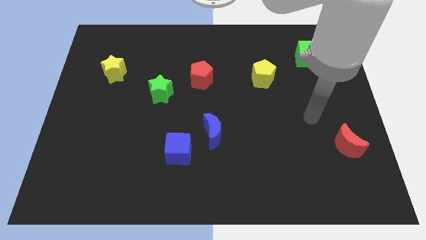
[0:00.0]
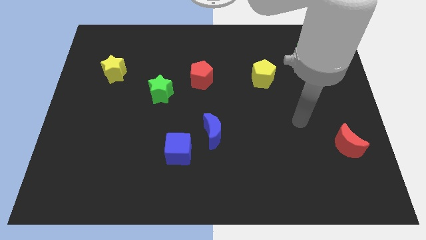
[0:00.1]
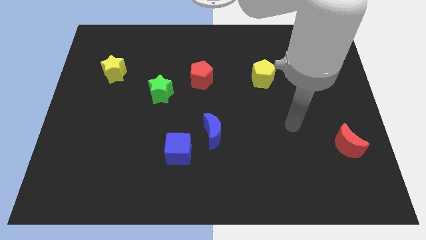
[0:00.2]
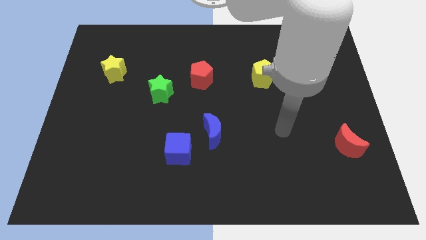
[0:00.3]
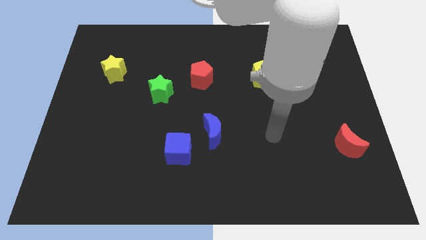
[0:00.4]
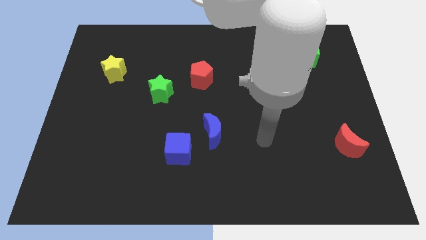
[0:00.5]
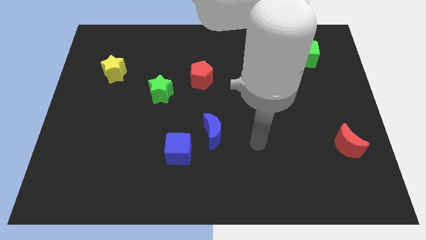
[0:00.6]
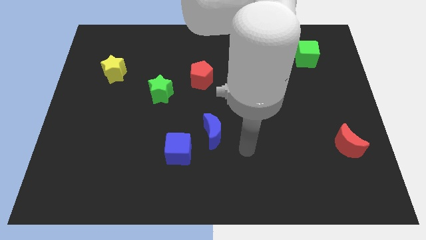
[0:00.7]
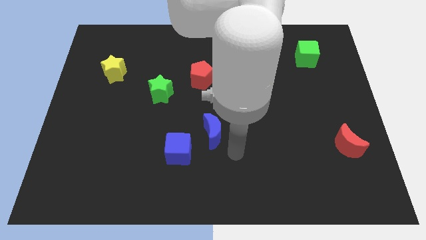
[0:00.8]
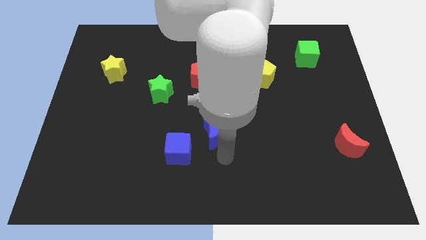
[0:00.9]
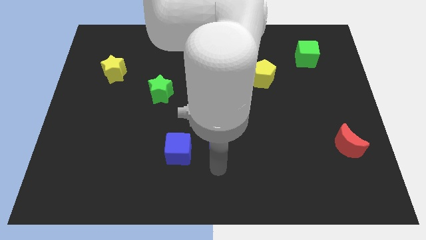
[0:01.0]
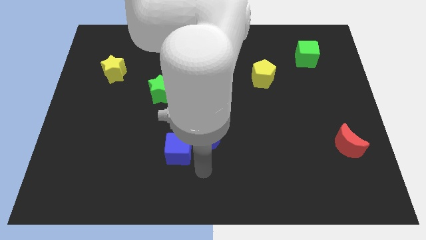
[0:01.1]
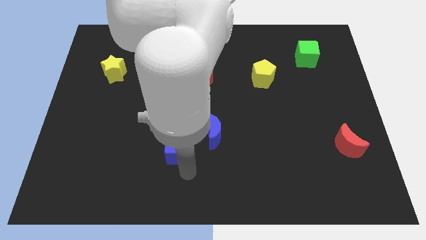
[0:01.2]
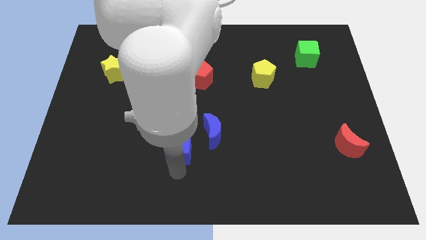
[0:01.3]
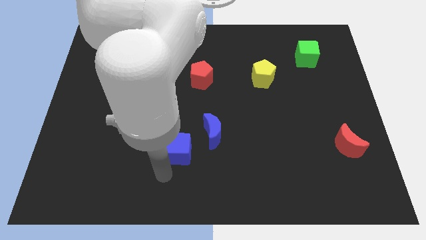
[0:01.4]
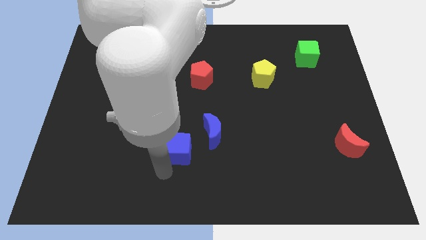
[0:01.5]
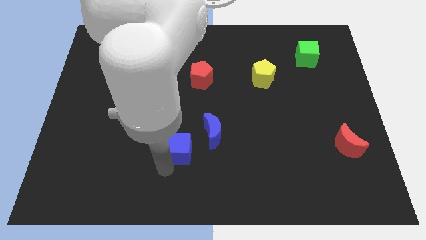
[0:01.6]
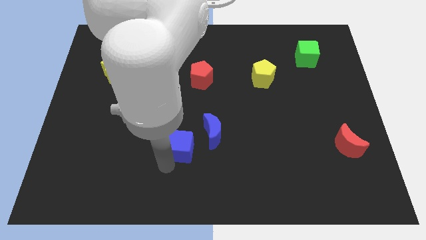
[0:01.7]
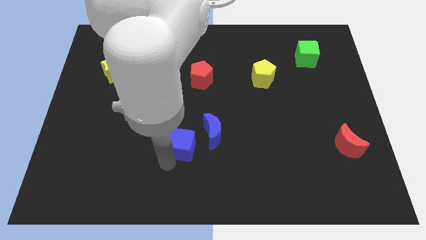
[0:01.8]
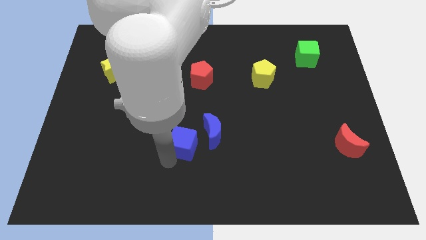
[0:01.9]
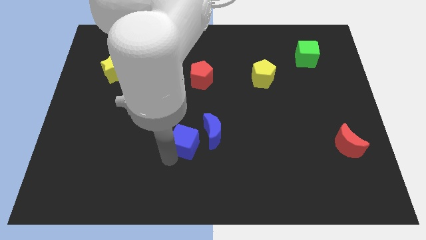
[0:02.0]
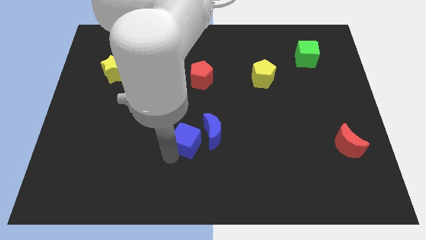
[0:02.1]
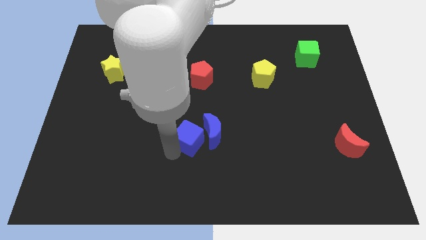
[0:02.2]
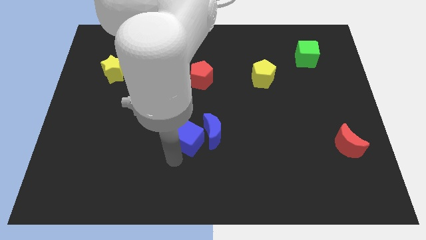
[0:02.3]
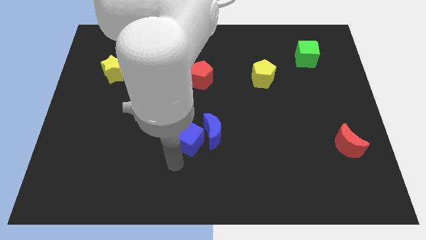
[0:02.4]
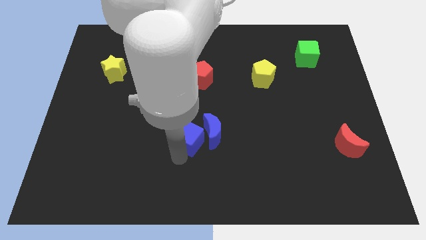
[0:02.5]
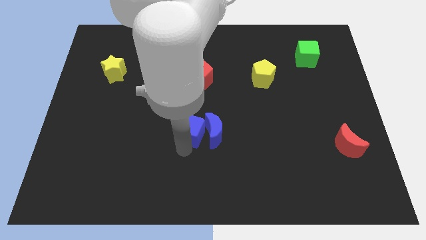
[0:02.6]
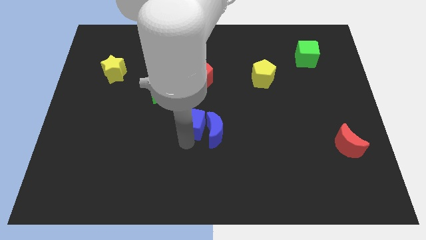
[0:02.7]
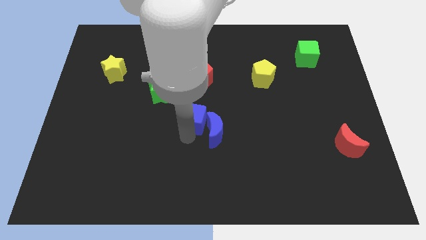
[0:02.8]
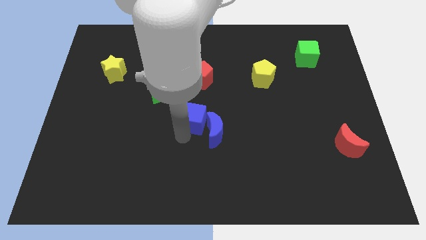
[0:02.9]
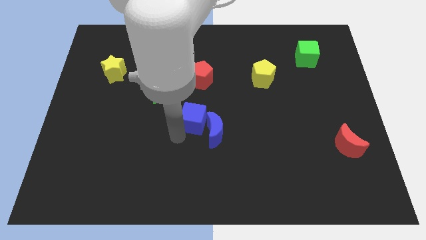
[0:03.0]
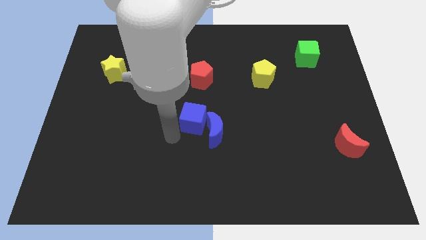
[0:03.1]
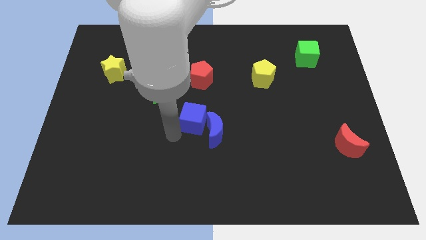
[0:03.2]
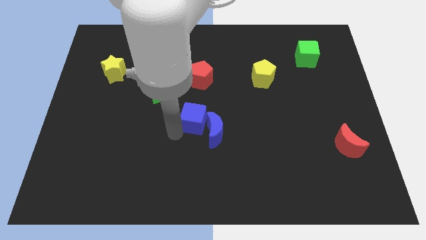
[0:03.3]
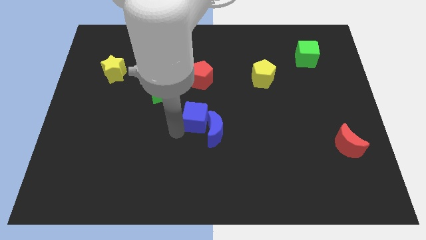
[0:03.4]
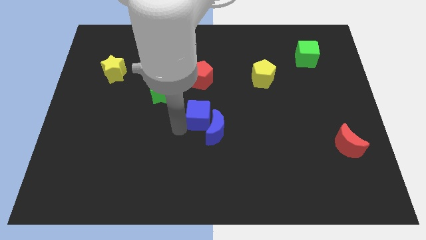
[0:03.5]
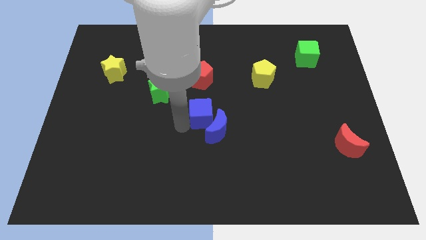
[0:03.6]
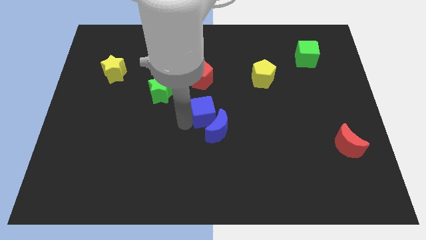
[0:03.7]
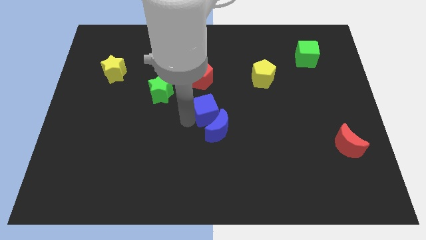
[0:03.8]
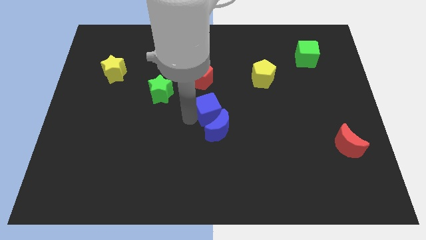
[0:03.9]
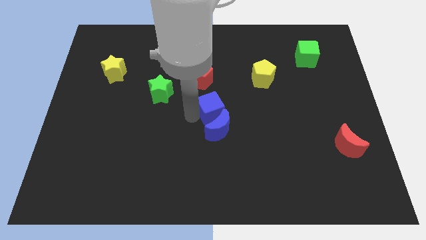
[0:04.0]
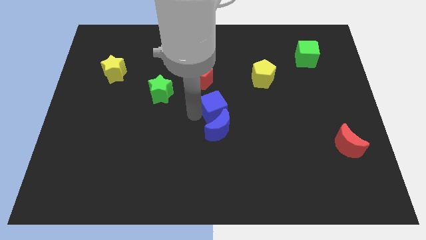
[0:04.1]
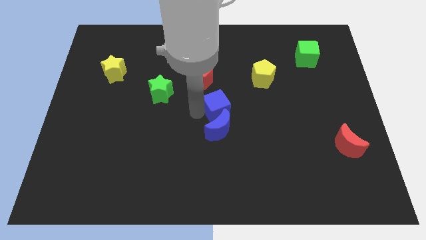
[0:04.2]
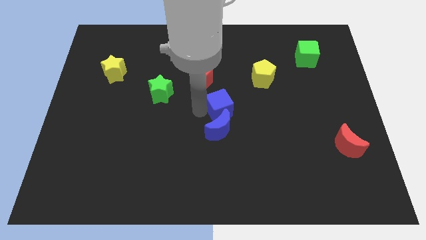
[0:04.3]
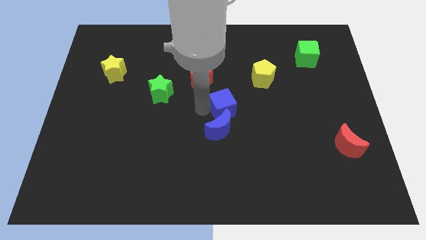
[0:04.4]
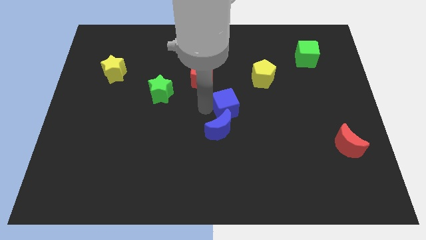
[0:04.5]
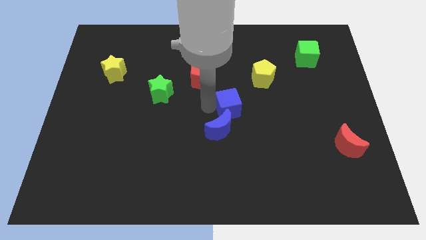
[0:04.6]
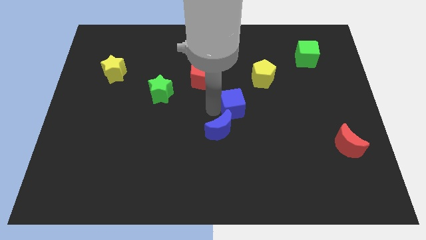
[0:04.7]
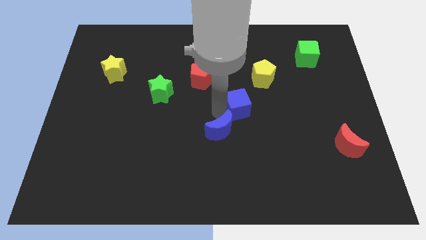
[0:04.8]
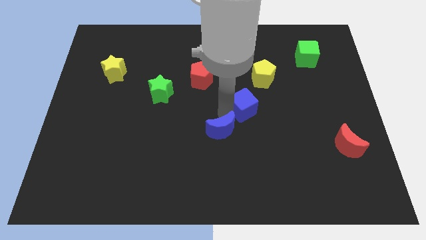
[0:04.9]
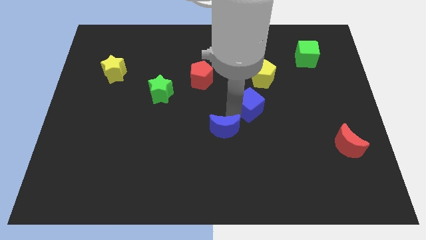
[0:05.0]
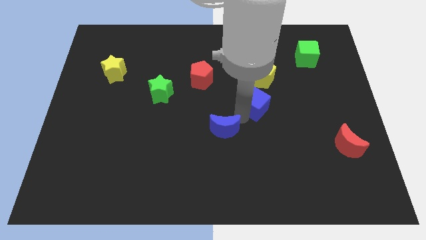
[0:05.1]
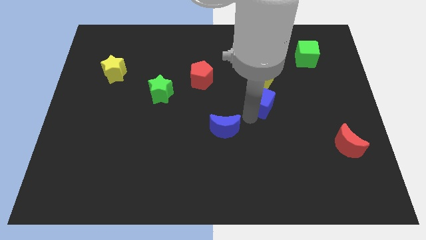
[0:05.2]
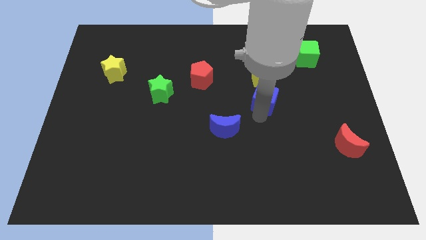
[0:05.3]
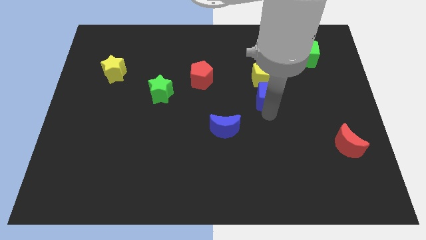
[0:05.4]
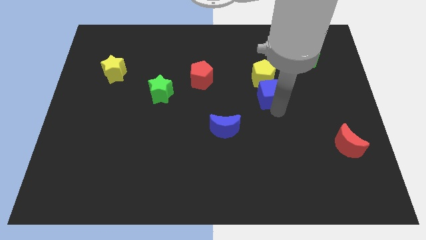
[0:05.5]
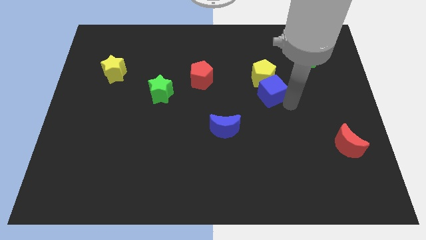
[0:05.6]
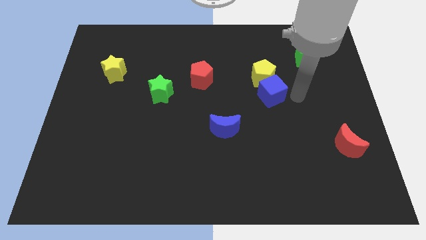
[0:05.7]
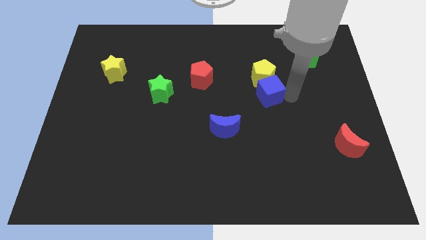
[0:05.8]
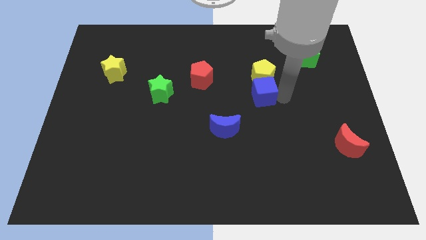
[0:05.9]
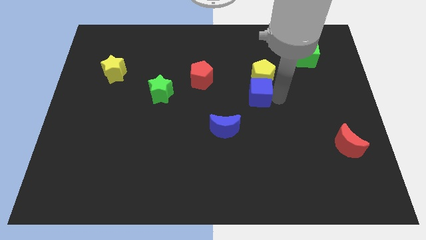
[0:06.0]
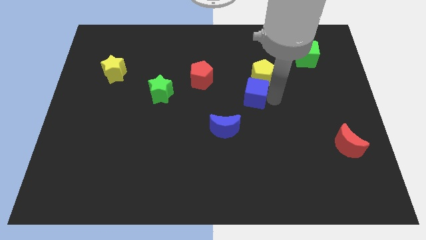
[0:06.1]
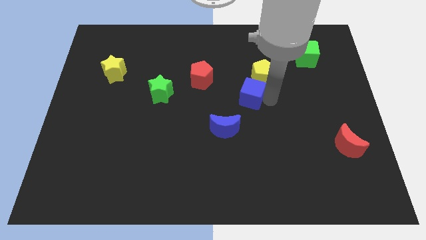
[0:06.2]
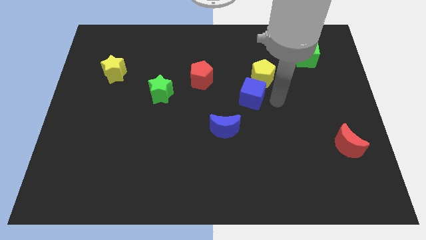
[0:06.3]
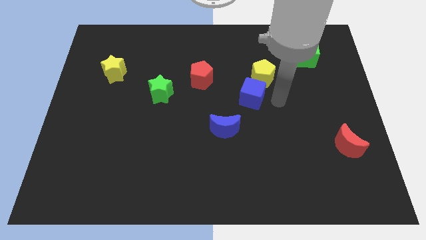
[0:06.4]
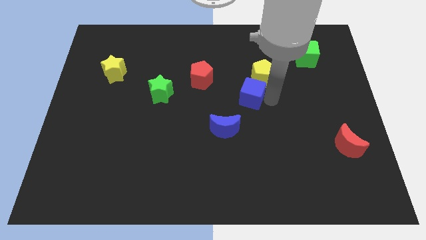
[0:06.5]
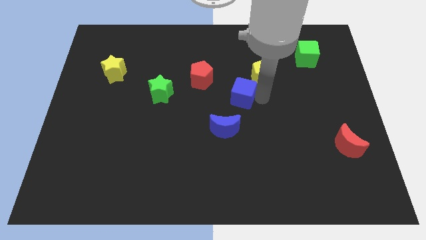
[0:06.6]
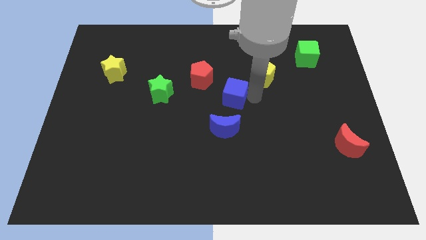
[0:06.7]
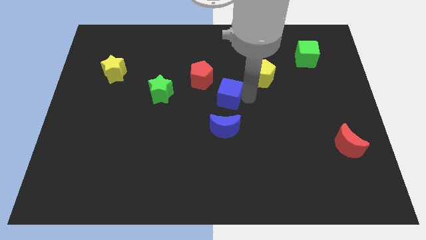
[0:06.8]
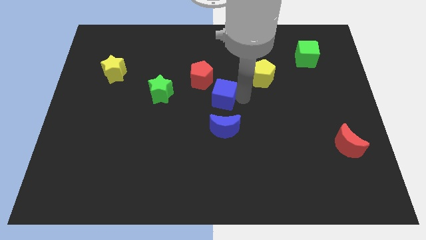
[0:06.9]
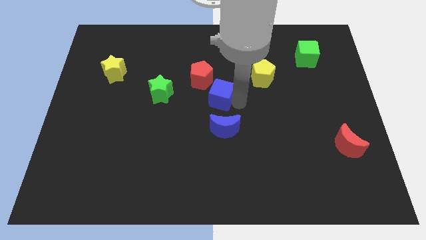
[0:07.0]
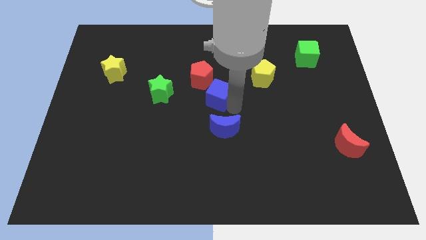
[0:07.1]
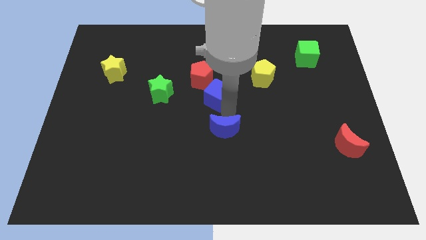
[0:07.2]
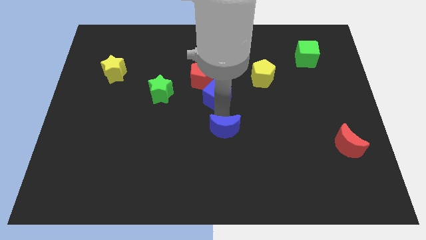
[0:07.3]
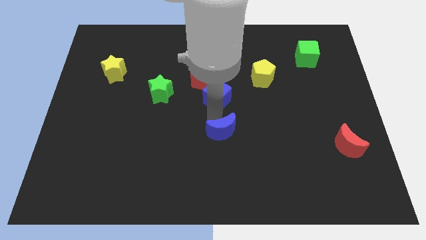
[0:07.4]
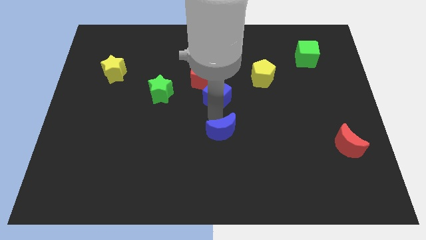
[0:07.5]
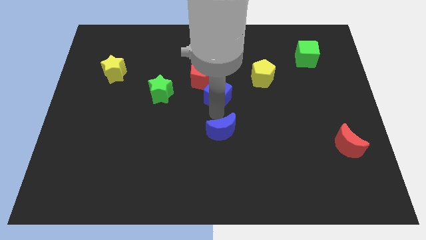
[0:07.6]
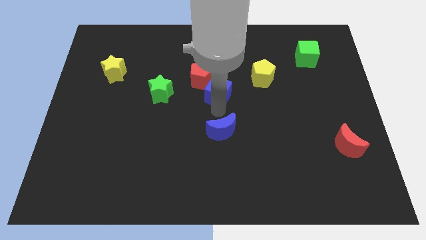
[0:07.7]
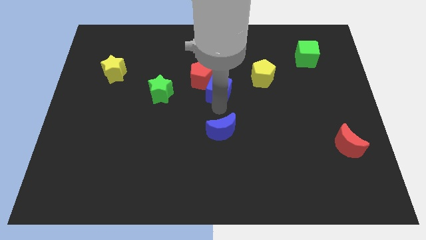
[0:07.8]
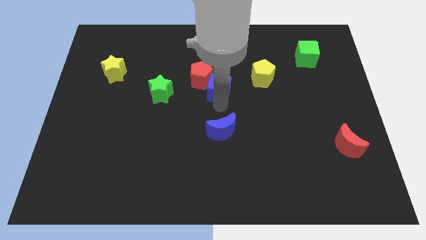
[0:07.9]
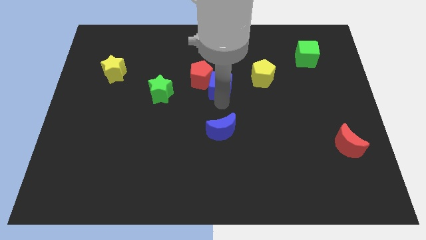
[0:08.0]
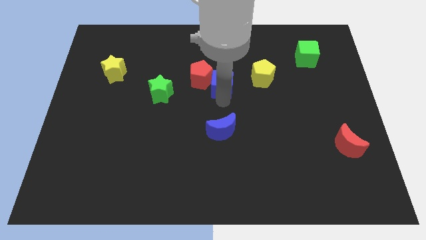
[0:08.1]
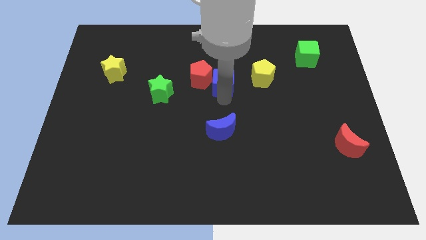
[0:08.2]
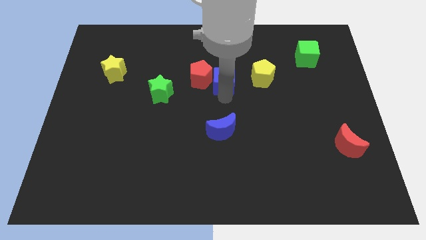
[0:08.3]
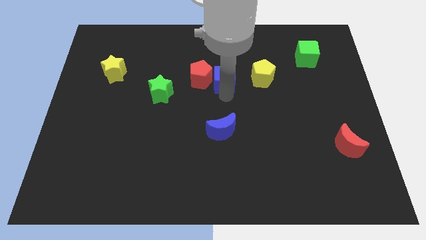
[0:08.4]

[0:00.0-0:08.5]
put the blue cube to the top right of the red pentagon
